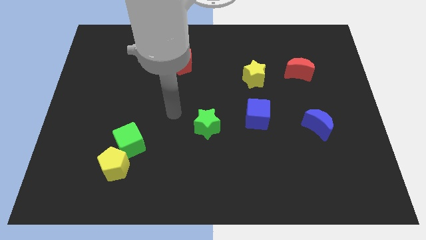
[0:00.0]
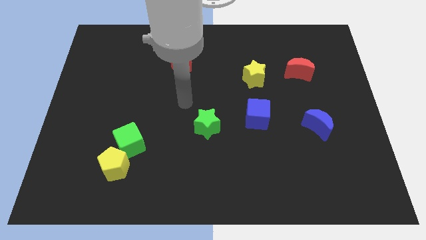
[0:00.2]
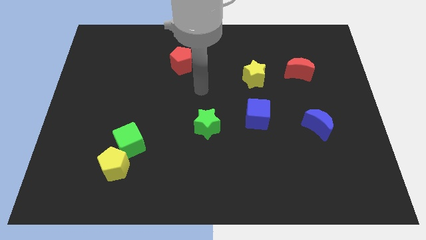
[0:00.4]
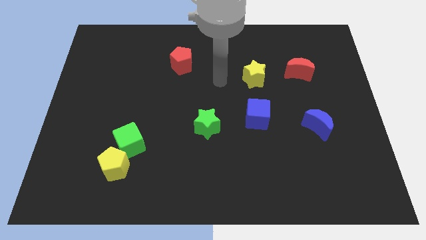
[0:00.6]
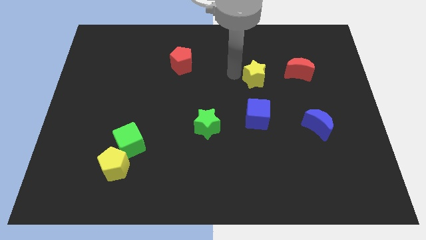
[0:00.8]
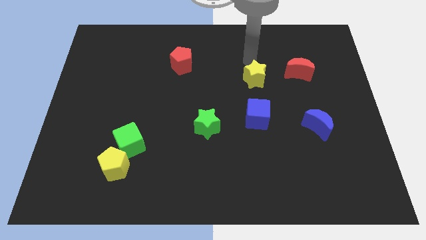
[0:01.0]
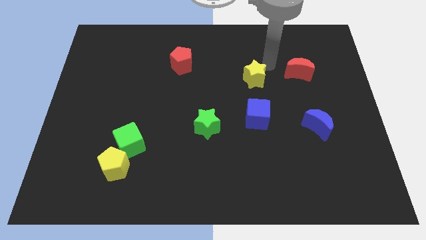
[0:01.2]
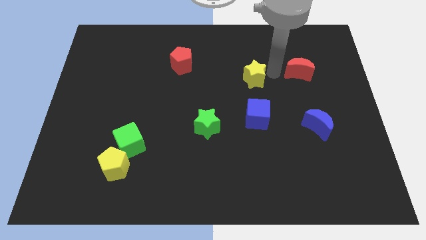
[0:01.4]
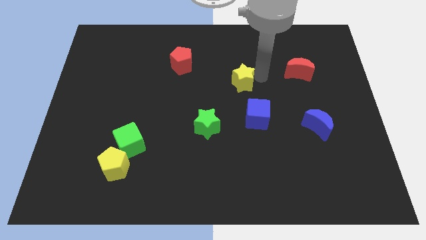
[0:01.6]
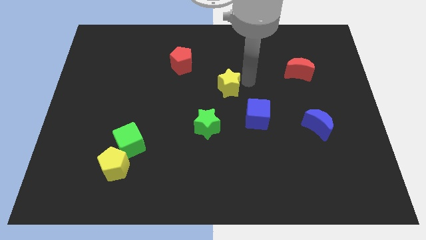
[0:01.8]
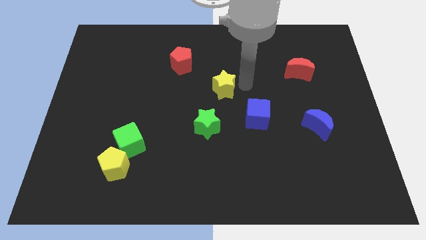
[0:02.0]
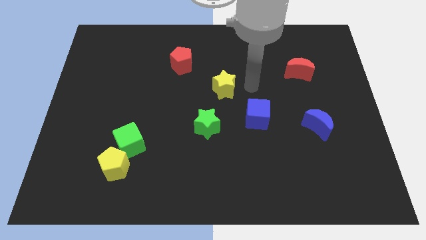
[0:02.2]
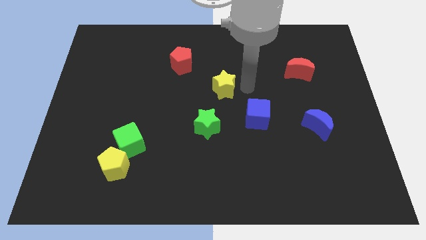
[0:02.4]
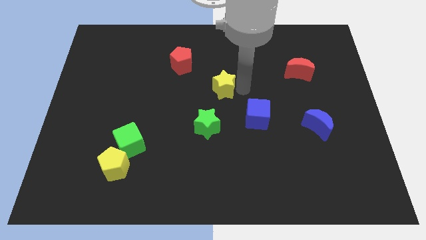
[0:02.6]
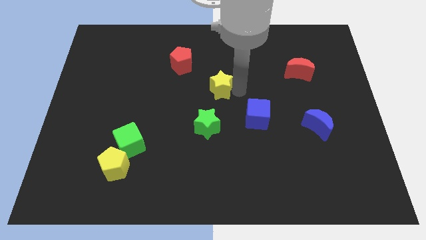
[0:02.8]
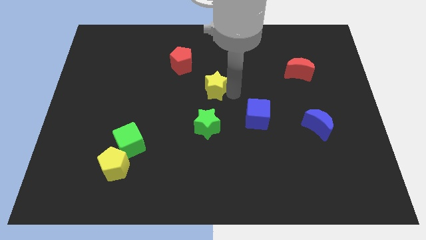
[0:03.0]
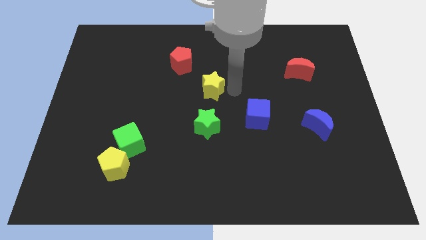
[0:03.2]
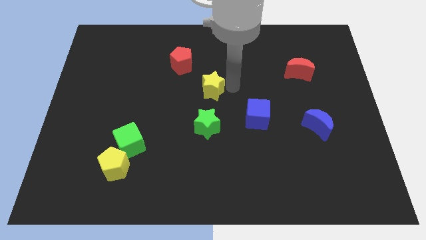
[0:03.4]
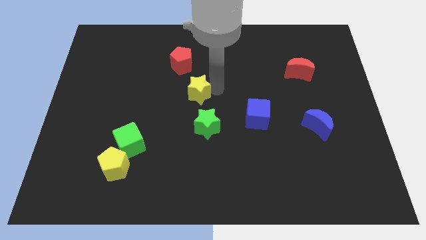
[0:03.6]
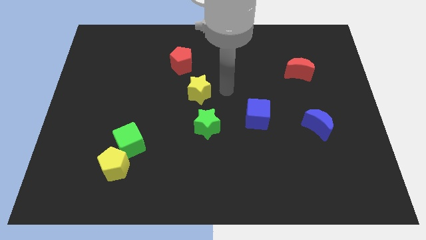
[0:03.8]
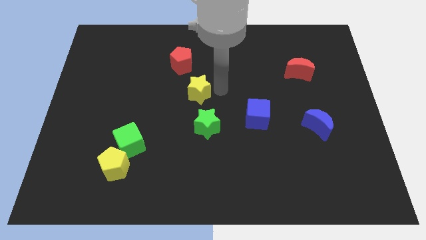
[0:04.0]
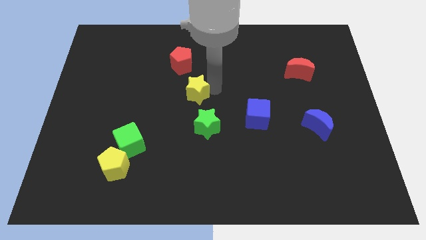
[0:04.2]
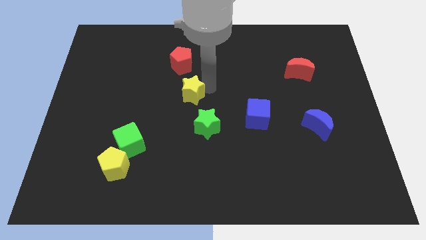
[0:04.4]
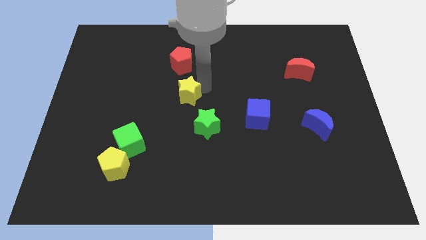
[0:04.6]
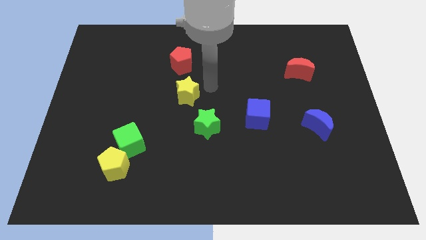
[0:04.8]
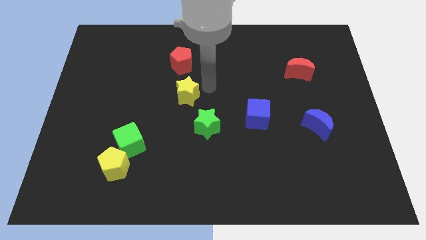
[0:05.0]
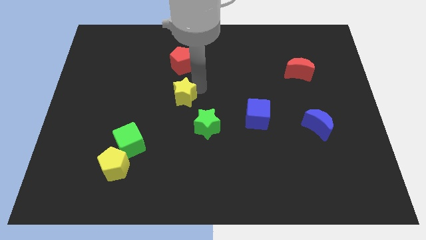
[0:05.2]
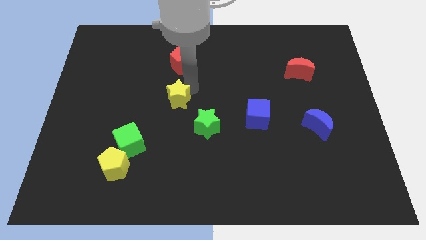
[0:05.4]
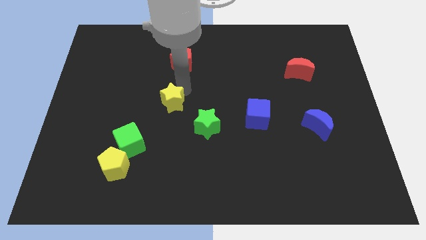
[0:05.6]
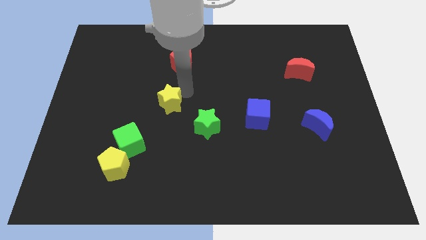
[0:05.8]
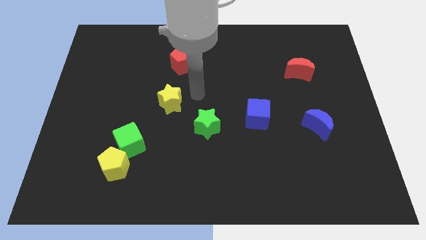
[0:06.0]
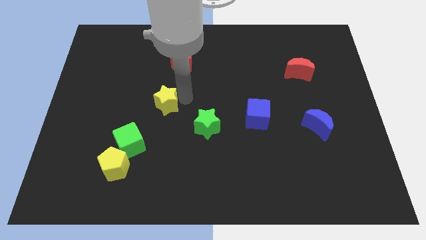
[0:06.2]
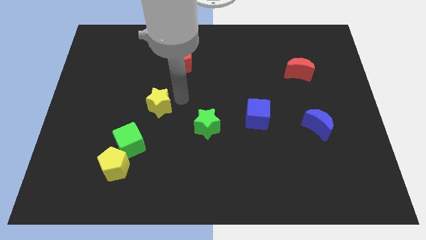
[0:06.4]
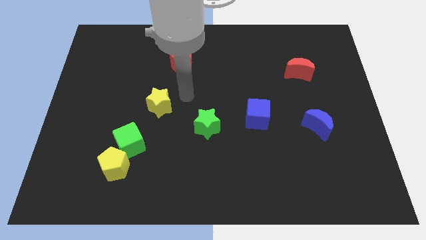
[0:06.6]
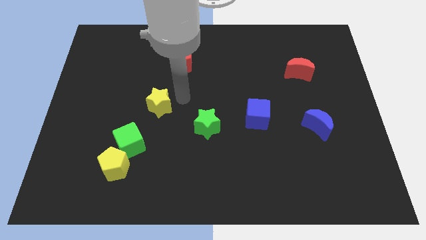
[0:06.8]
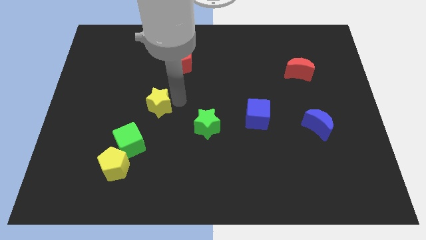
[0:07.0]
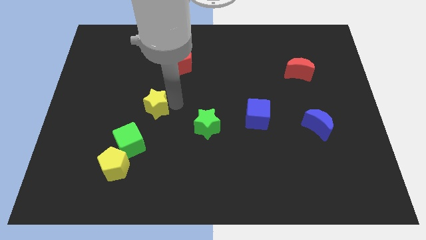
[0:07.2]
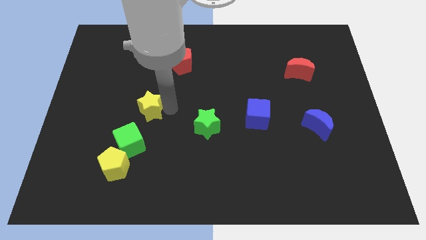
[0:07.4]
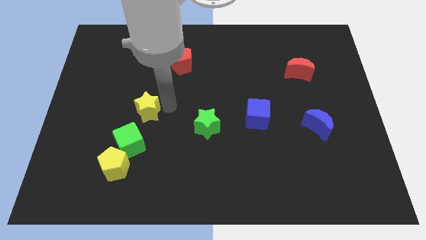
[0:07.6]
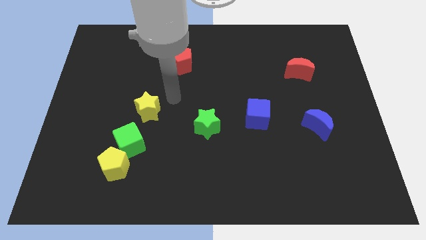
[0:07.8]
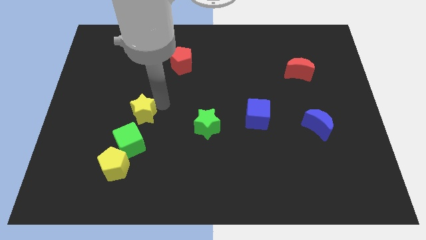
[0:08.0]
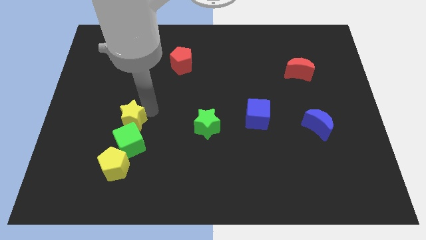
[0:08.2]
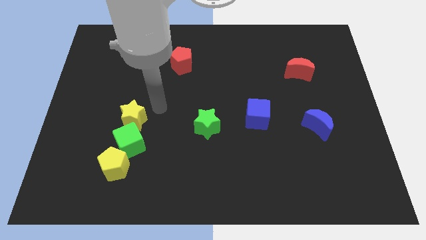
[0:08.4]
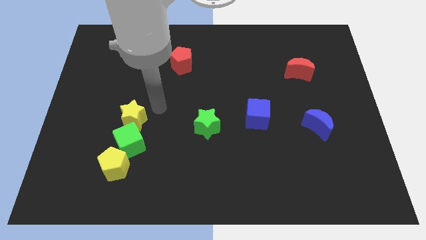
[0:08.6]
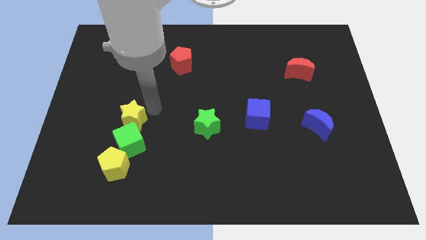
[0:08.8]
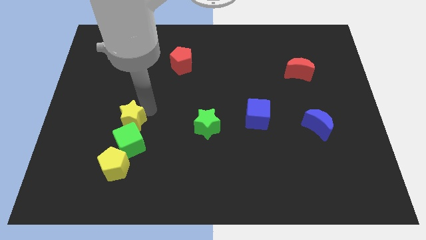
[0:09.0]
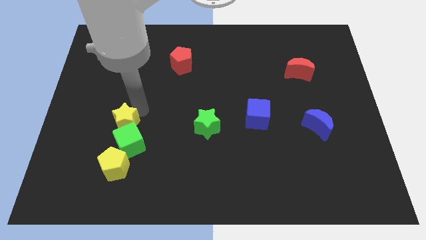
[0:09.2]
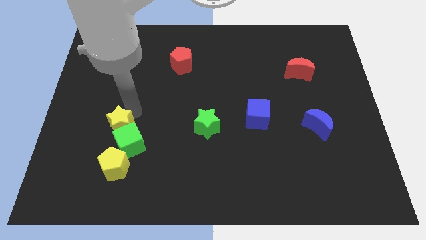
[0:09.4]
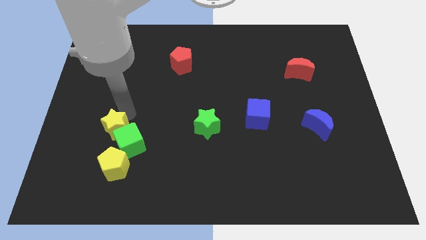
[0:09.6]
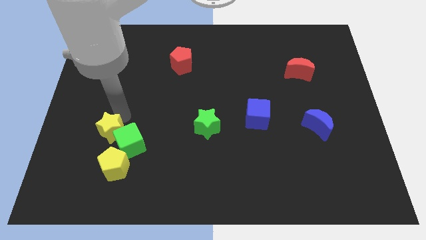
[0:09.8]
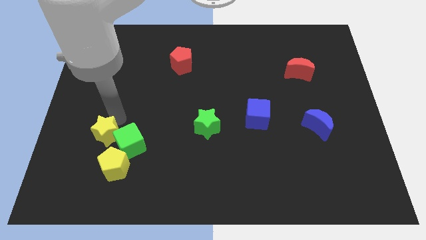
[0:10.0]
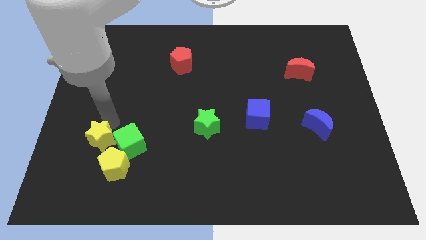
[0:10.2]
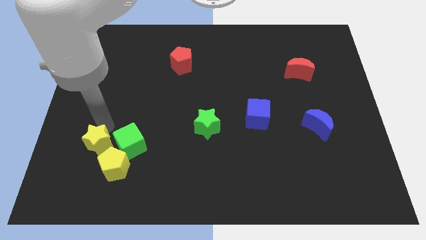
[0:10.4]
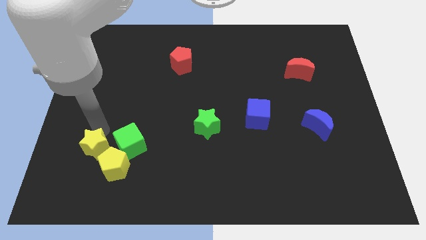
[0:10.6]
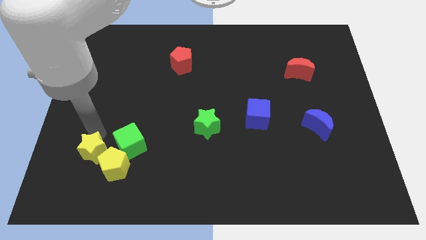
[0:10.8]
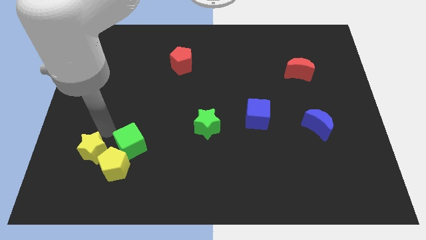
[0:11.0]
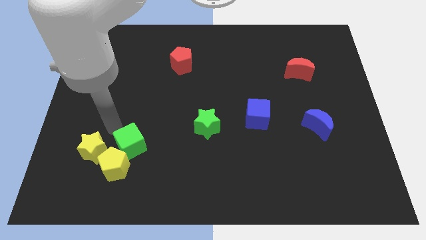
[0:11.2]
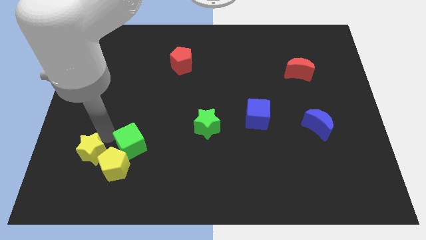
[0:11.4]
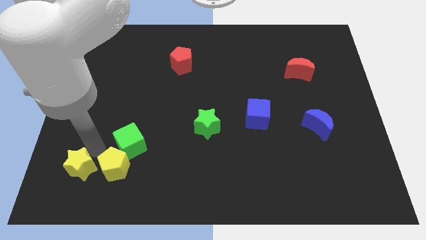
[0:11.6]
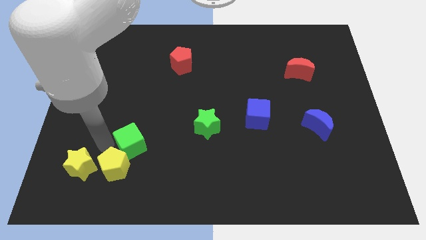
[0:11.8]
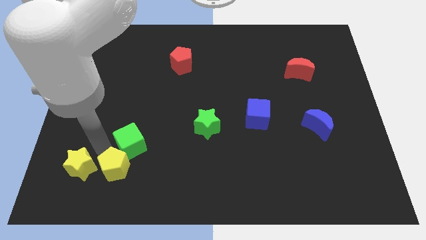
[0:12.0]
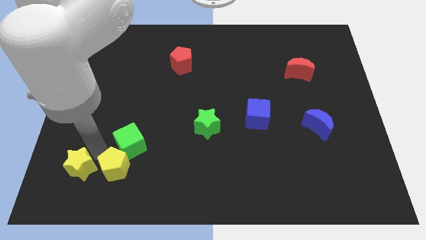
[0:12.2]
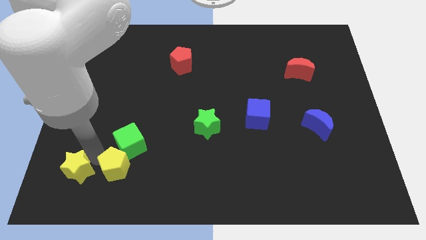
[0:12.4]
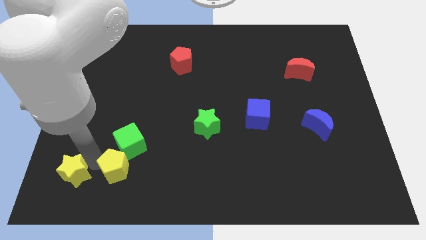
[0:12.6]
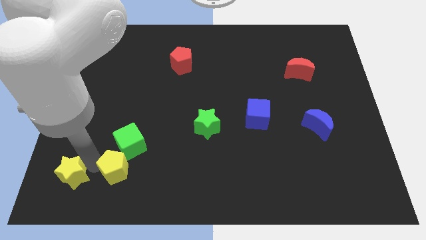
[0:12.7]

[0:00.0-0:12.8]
push the yellow star to the lower left corner
